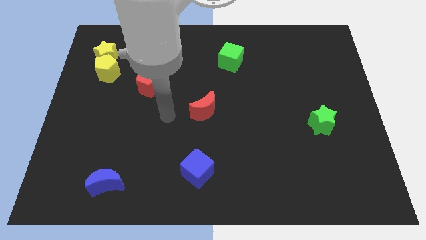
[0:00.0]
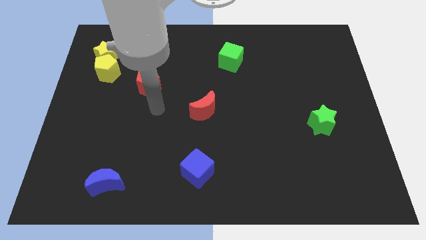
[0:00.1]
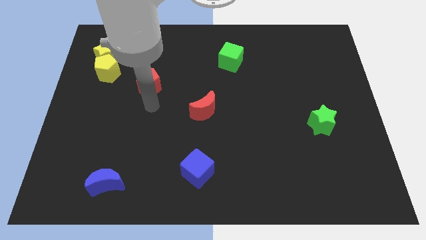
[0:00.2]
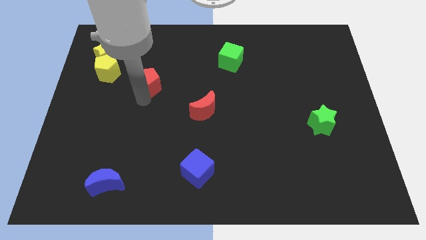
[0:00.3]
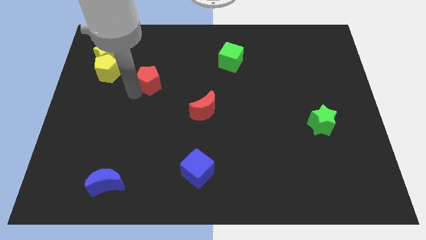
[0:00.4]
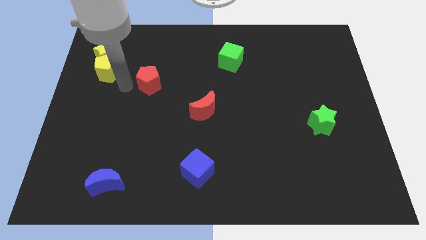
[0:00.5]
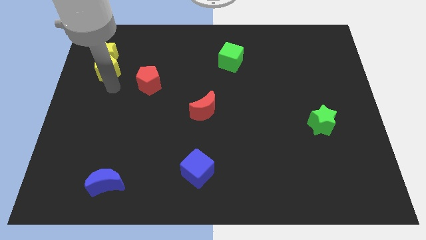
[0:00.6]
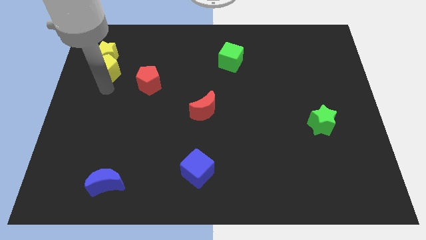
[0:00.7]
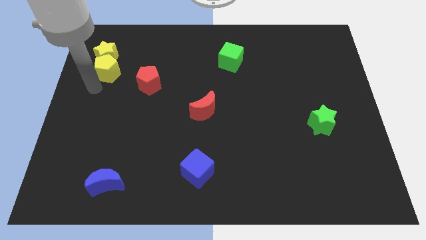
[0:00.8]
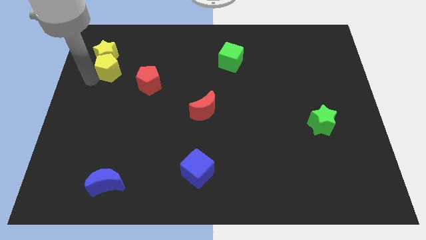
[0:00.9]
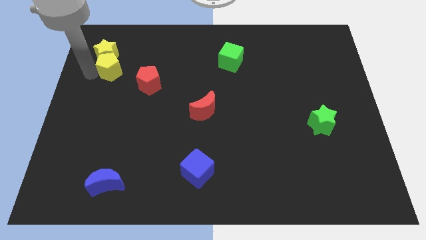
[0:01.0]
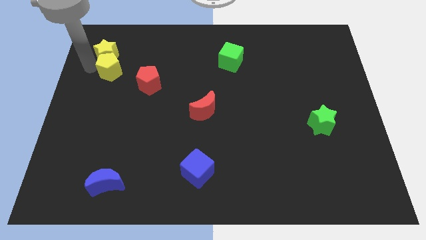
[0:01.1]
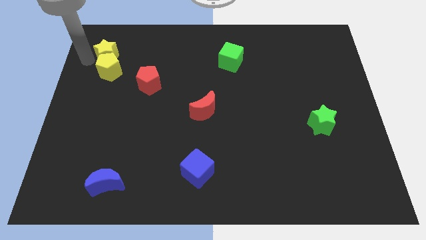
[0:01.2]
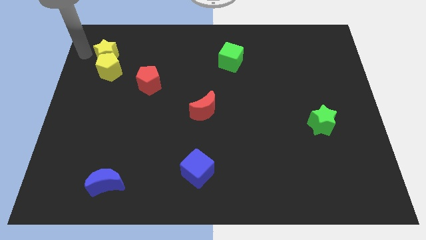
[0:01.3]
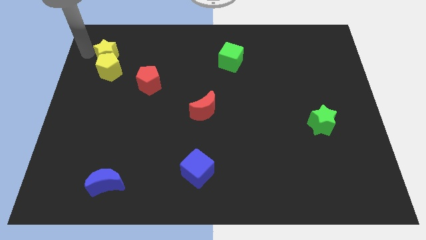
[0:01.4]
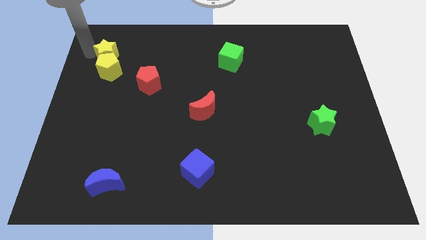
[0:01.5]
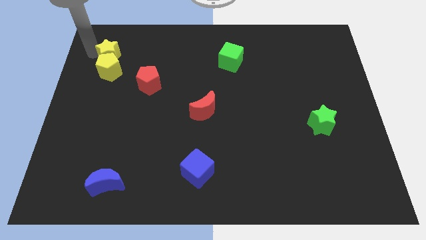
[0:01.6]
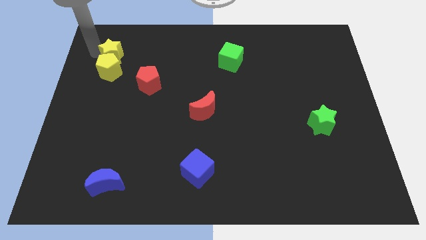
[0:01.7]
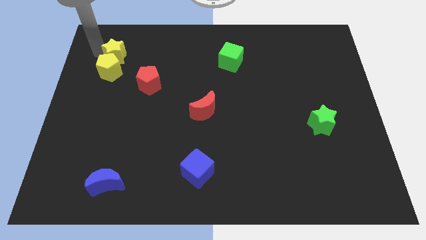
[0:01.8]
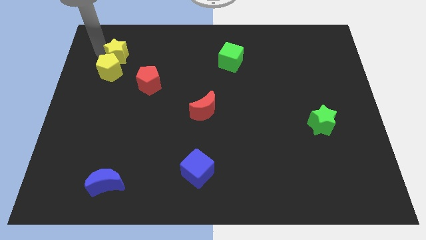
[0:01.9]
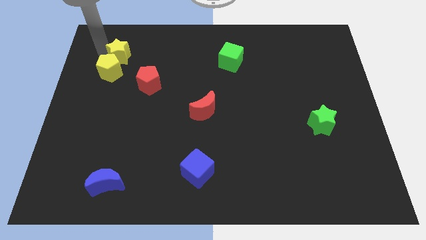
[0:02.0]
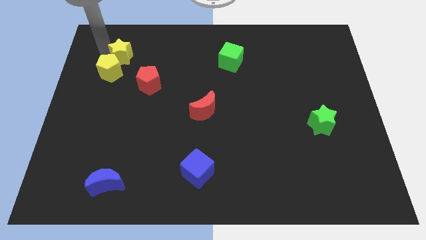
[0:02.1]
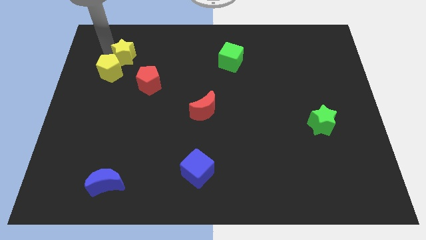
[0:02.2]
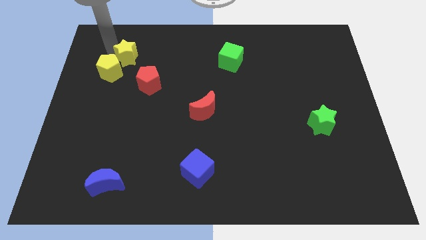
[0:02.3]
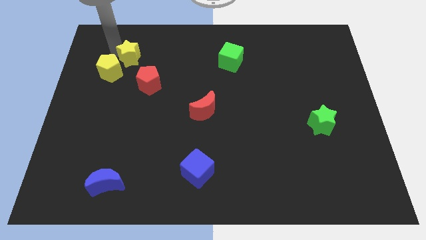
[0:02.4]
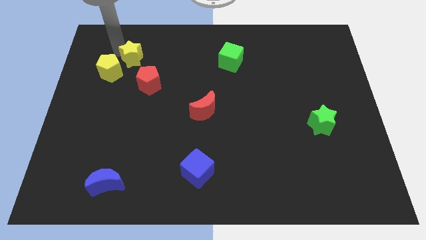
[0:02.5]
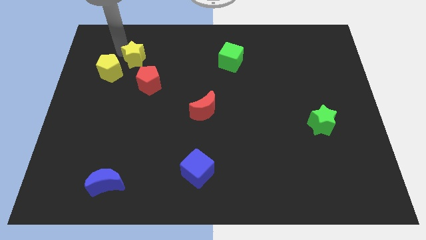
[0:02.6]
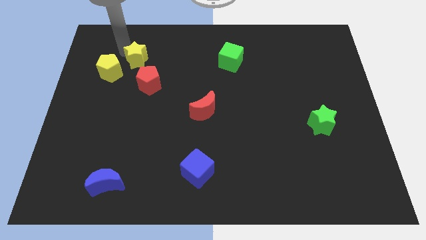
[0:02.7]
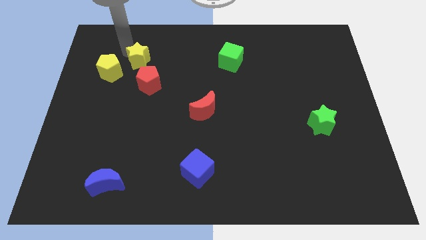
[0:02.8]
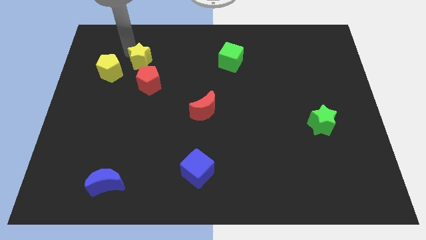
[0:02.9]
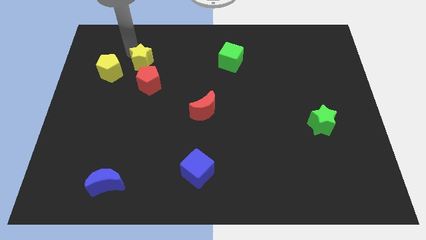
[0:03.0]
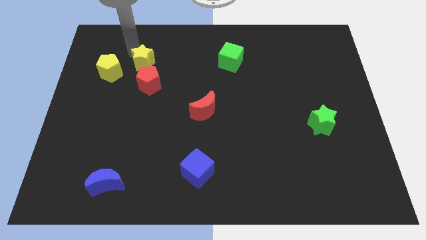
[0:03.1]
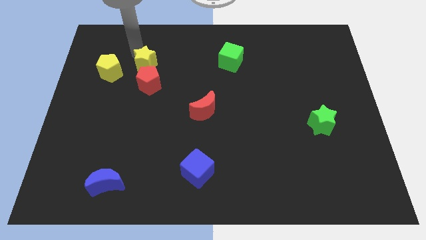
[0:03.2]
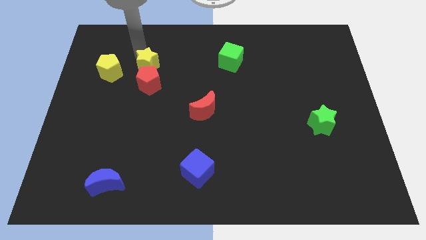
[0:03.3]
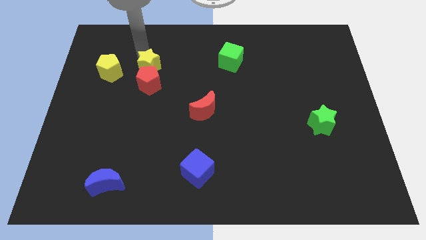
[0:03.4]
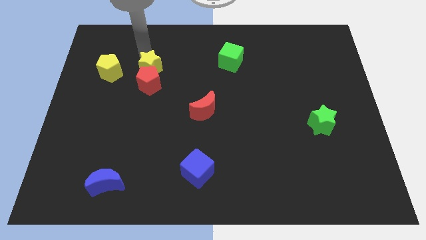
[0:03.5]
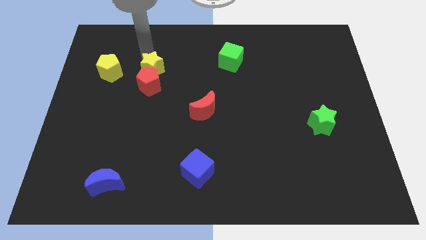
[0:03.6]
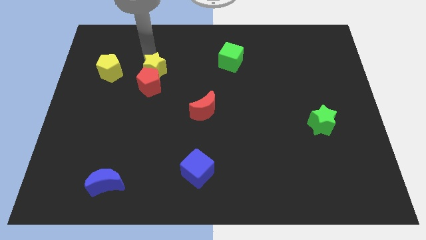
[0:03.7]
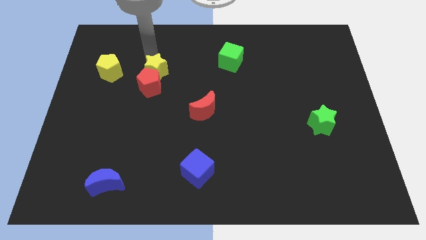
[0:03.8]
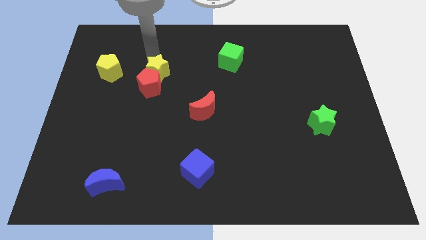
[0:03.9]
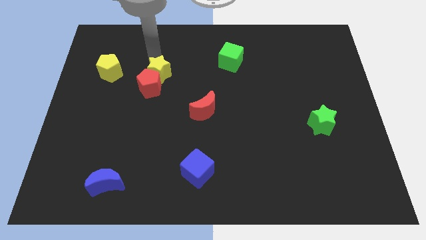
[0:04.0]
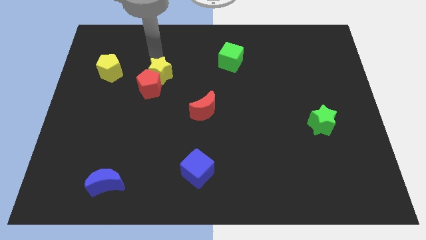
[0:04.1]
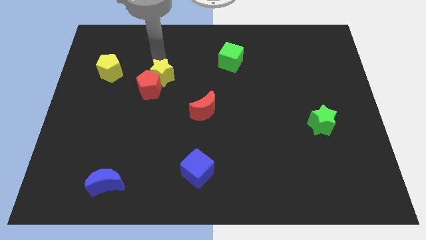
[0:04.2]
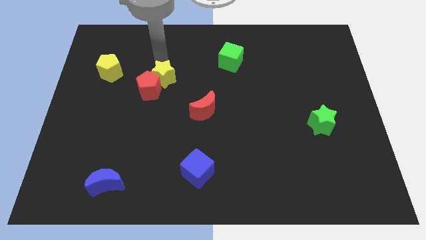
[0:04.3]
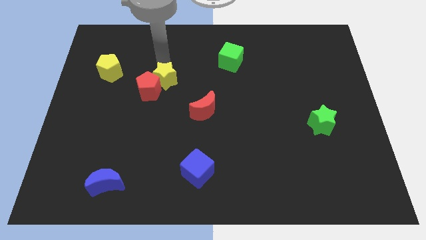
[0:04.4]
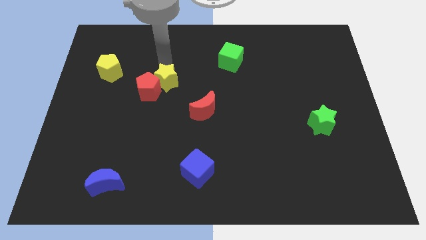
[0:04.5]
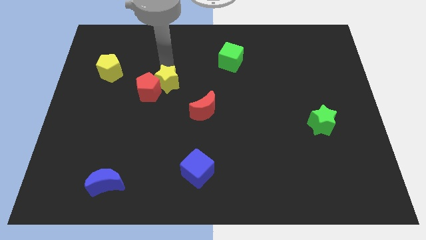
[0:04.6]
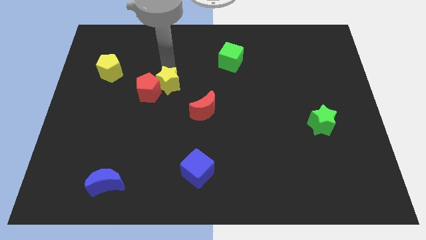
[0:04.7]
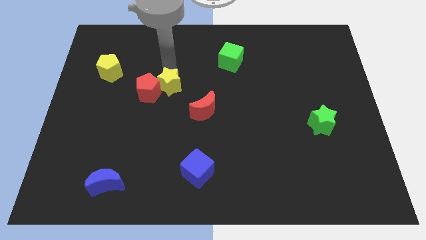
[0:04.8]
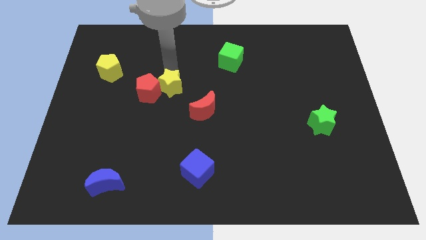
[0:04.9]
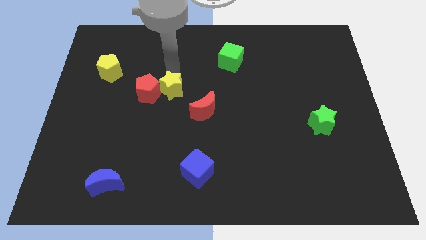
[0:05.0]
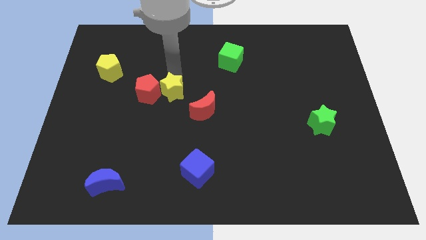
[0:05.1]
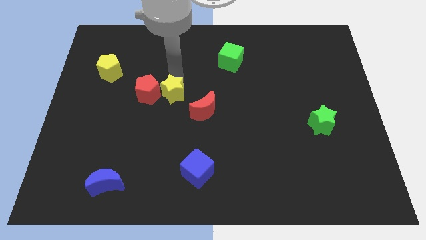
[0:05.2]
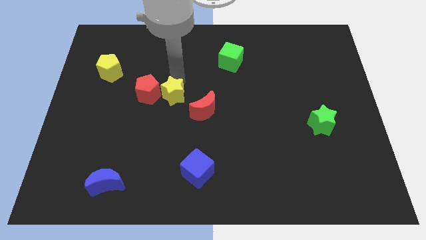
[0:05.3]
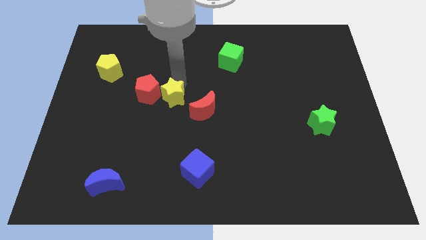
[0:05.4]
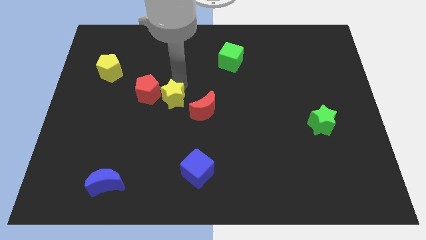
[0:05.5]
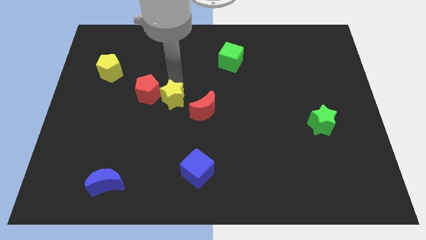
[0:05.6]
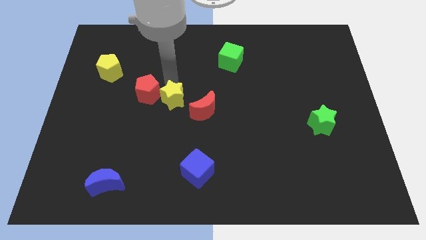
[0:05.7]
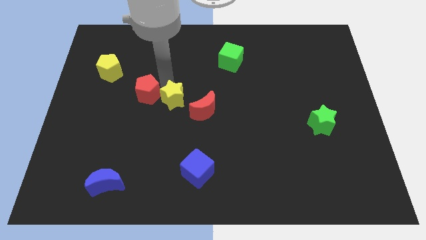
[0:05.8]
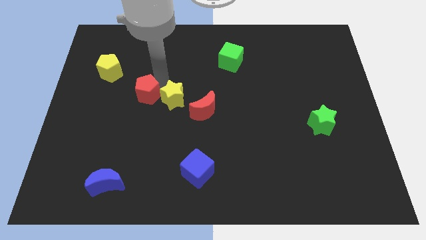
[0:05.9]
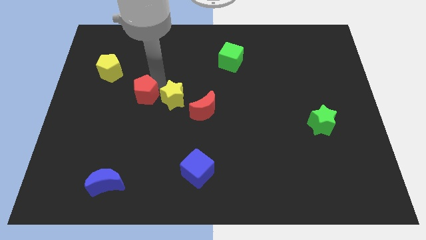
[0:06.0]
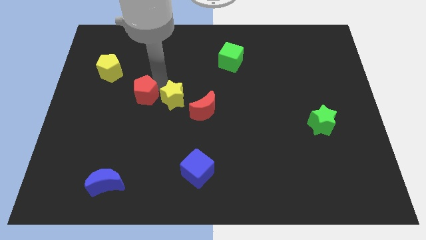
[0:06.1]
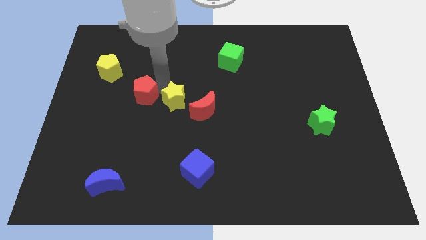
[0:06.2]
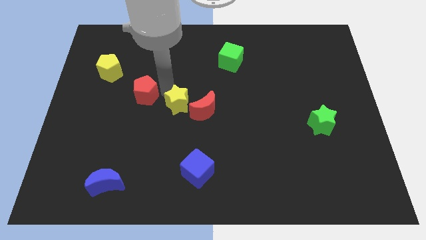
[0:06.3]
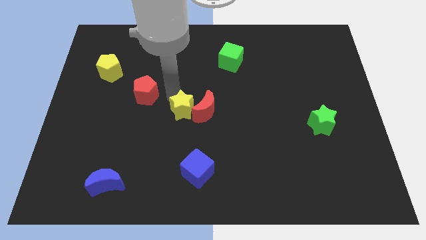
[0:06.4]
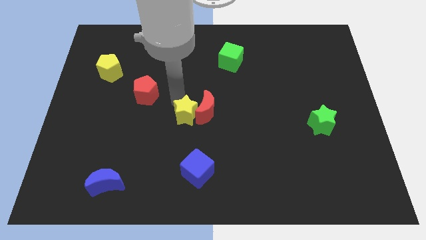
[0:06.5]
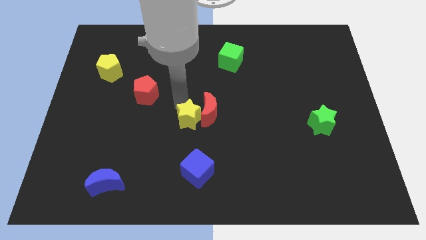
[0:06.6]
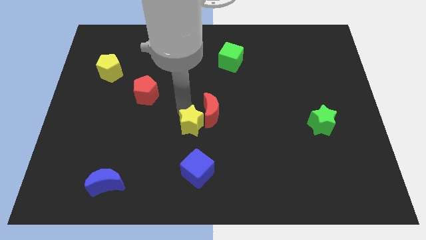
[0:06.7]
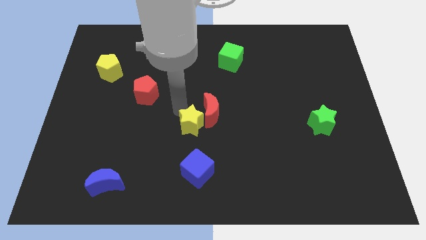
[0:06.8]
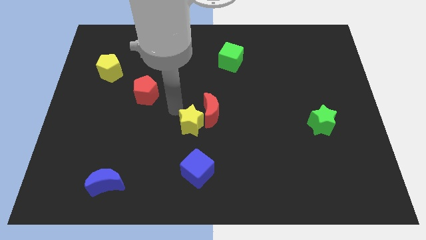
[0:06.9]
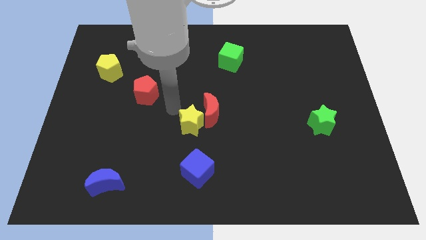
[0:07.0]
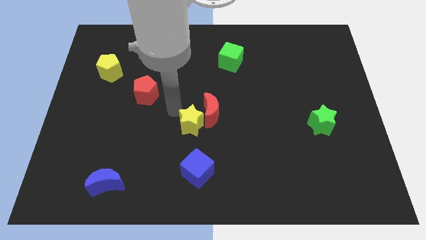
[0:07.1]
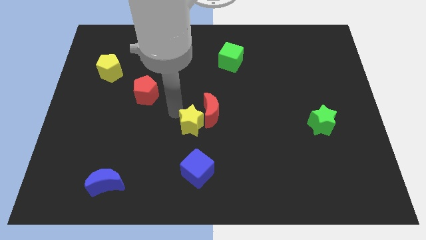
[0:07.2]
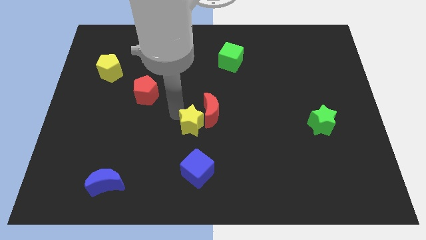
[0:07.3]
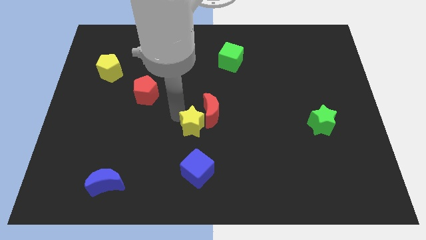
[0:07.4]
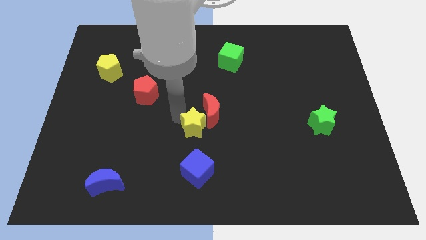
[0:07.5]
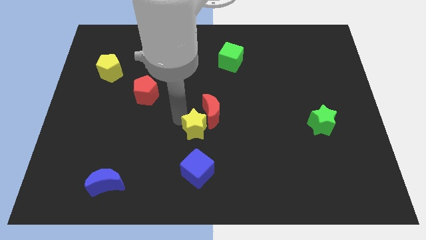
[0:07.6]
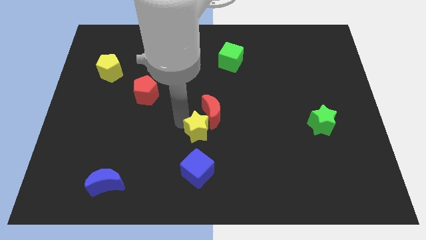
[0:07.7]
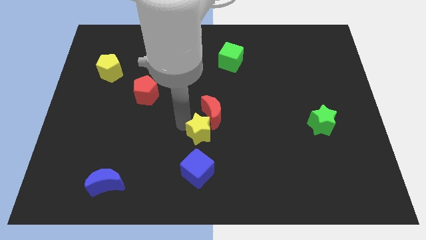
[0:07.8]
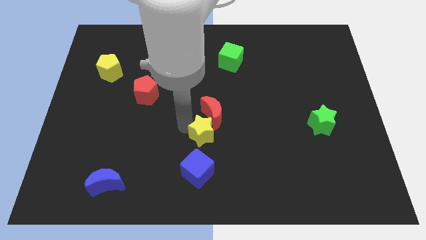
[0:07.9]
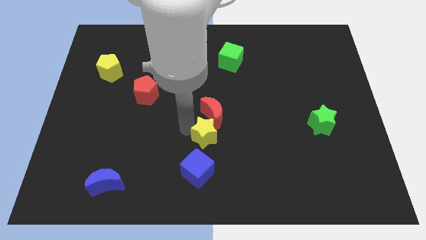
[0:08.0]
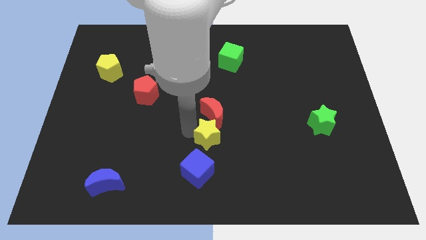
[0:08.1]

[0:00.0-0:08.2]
slide the yellow star to the top right side of the blue cube
